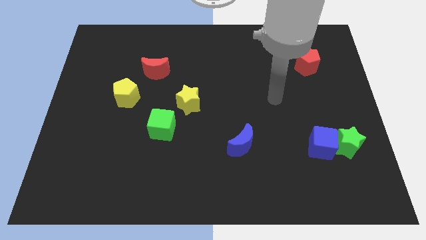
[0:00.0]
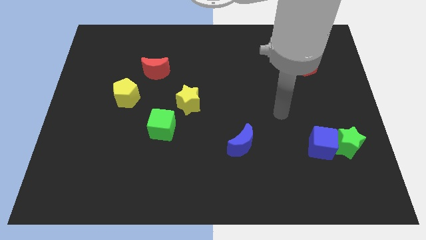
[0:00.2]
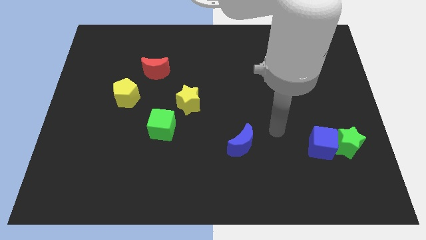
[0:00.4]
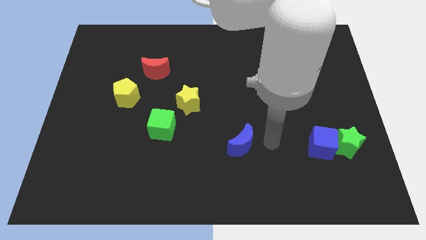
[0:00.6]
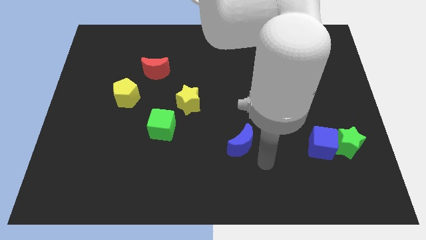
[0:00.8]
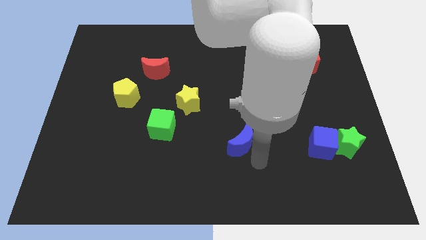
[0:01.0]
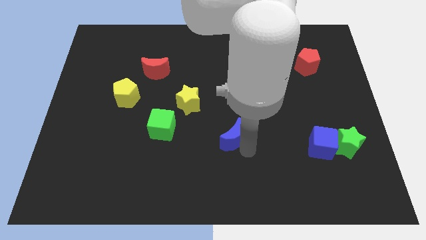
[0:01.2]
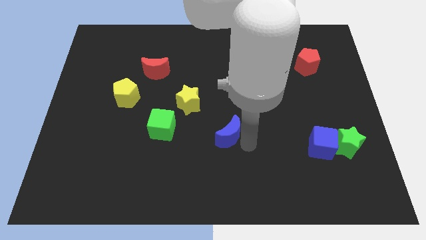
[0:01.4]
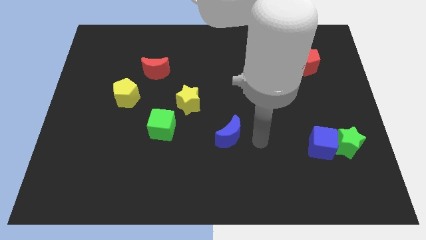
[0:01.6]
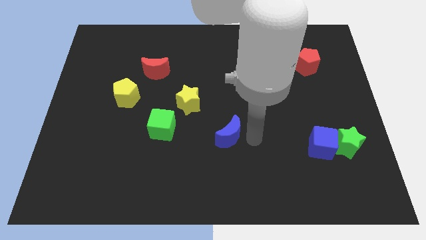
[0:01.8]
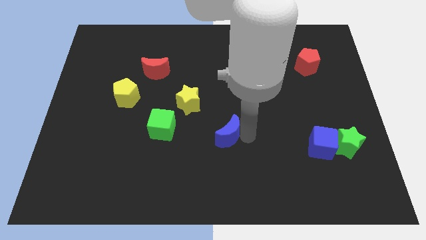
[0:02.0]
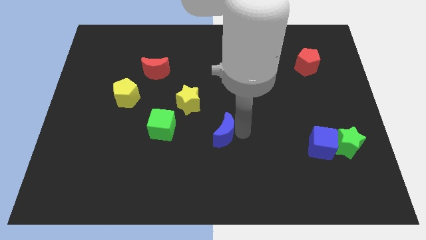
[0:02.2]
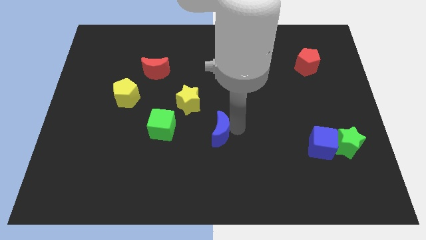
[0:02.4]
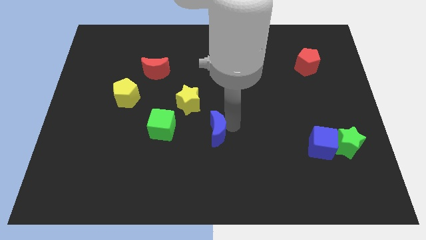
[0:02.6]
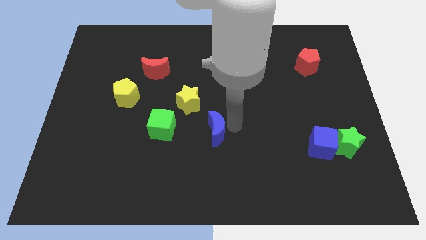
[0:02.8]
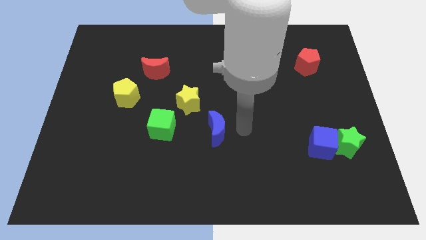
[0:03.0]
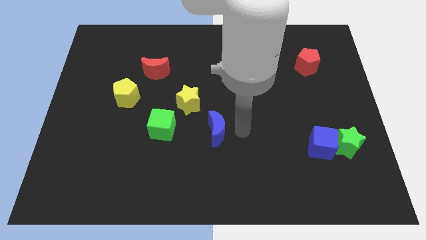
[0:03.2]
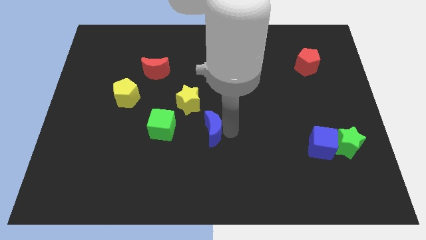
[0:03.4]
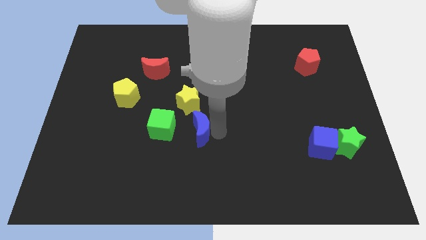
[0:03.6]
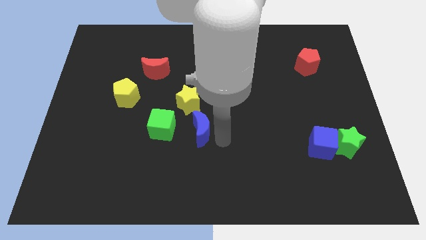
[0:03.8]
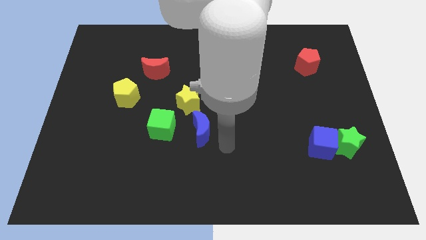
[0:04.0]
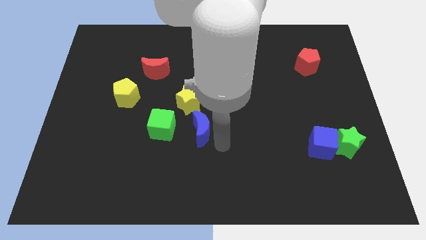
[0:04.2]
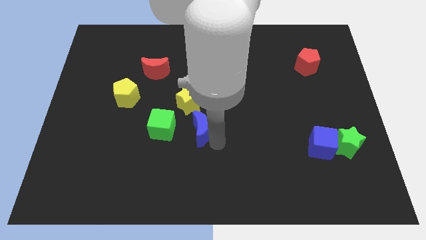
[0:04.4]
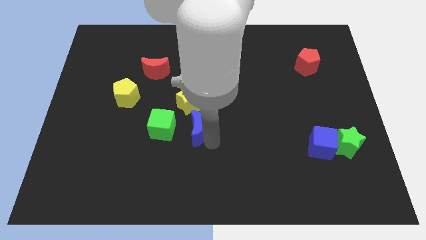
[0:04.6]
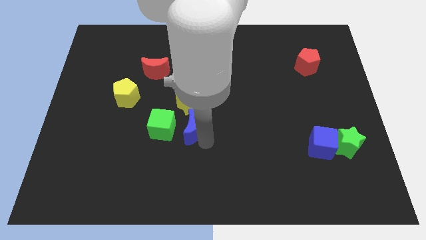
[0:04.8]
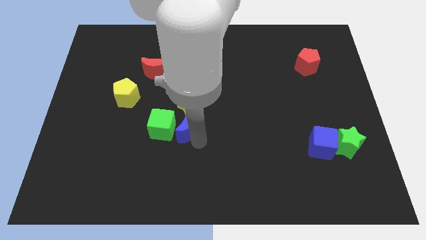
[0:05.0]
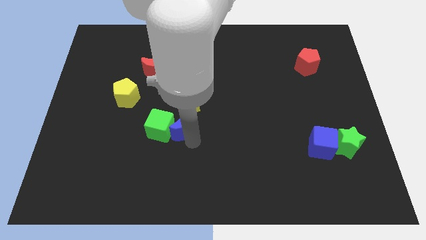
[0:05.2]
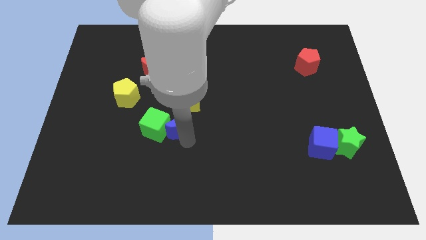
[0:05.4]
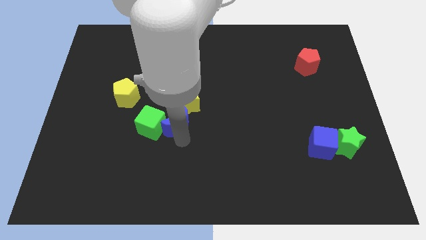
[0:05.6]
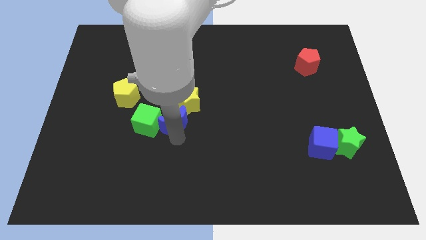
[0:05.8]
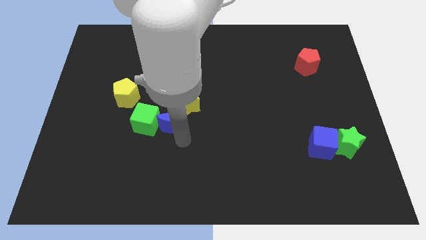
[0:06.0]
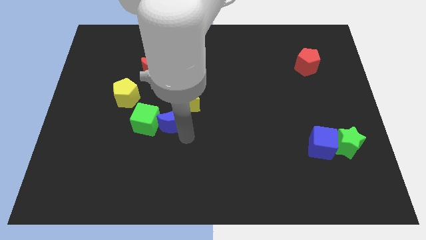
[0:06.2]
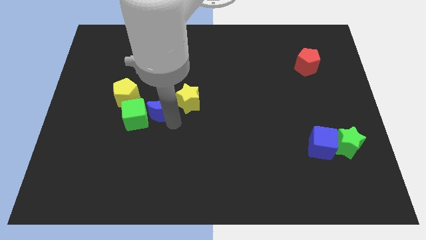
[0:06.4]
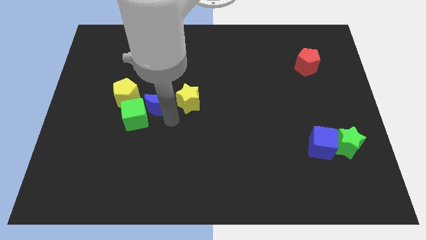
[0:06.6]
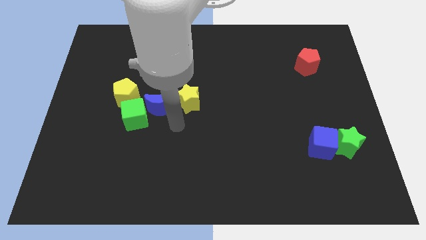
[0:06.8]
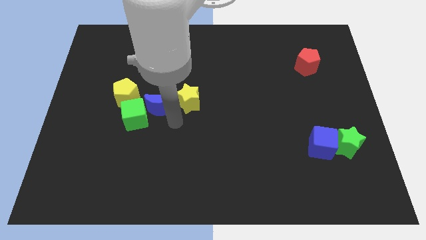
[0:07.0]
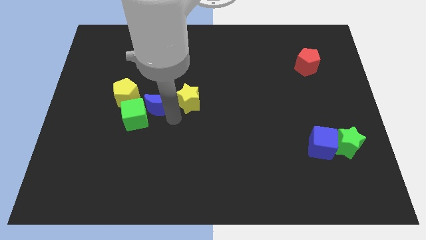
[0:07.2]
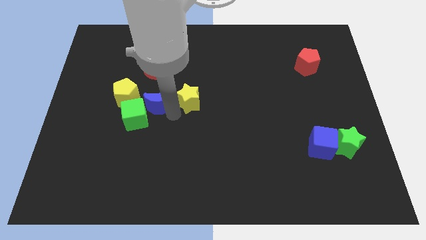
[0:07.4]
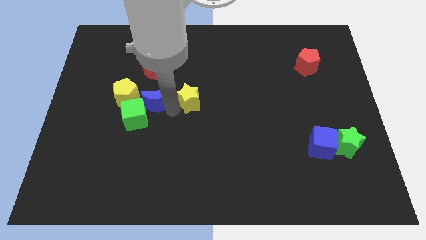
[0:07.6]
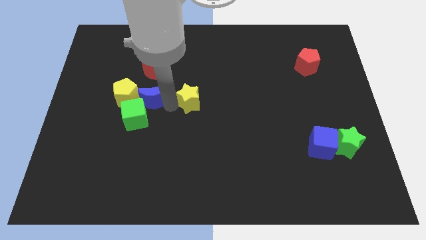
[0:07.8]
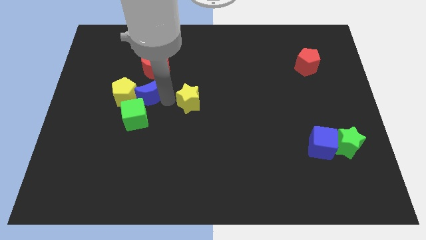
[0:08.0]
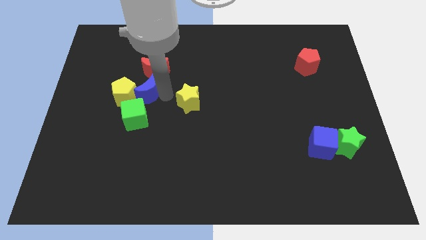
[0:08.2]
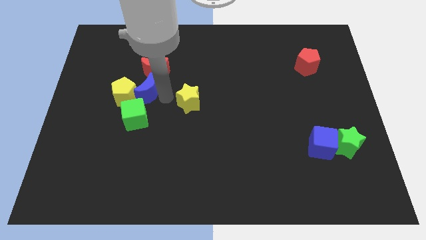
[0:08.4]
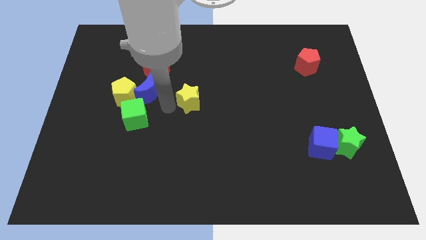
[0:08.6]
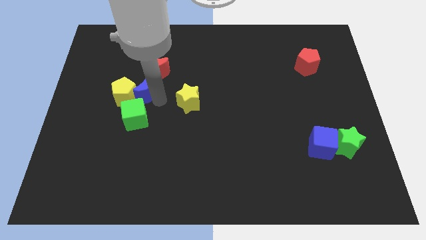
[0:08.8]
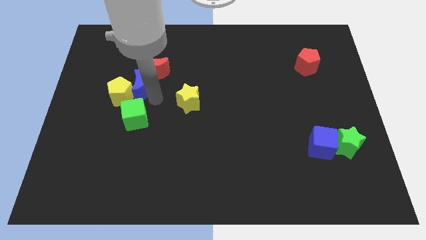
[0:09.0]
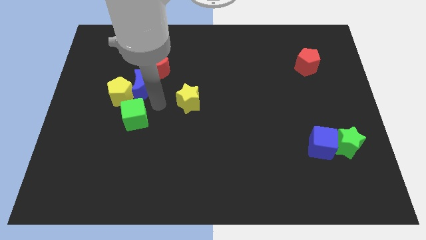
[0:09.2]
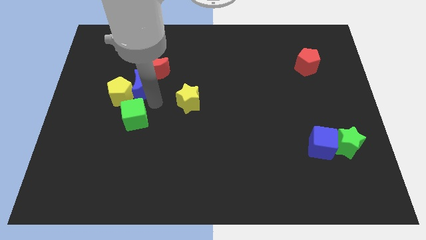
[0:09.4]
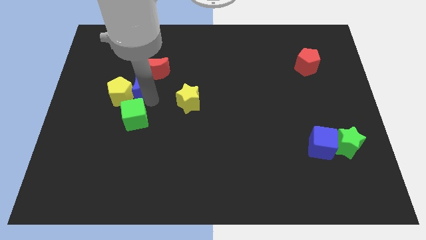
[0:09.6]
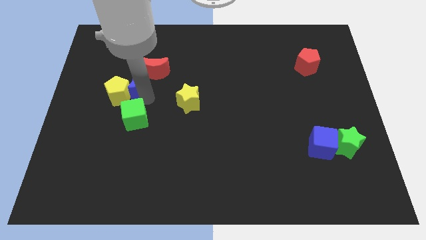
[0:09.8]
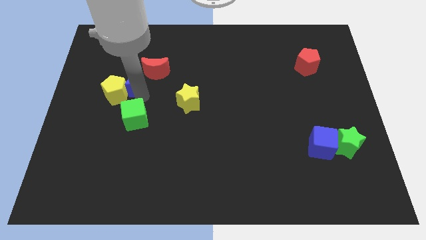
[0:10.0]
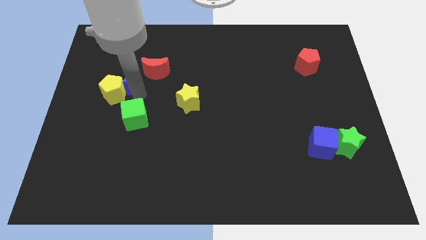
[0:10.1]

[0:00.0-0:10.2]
push the blue moon to the top side of the yellow pentagon

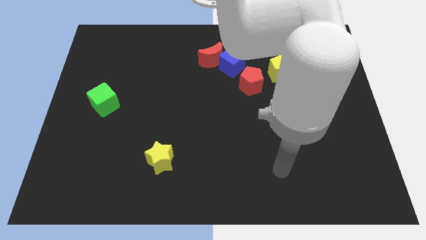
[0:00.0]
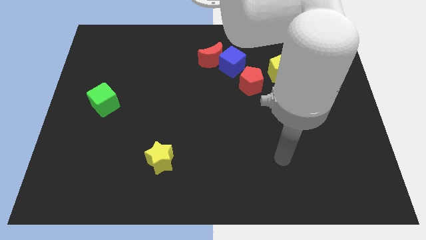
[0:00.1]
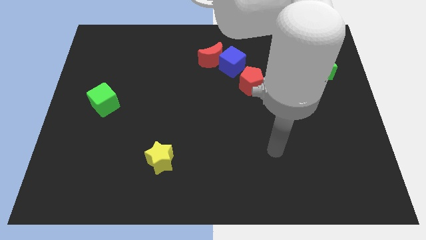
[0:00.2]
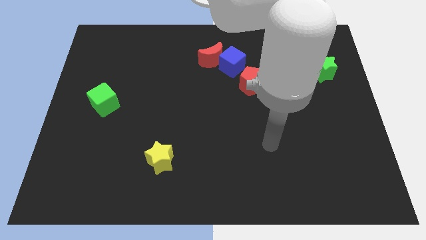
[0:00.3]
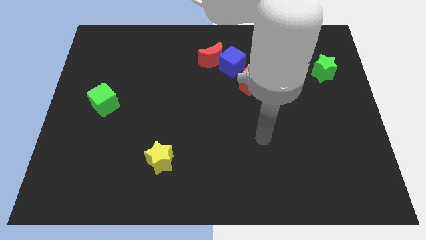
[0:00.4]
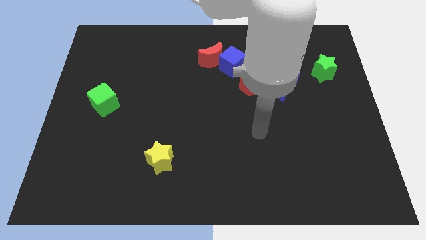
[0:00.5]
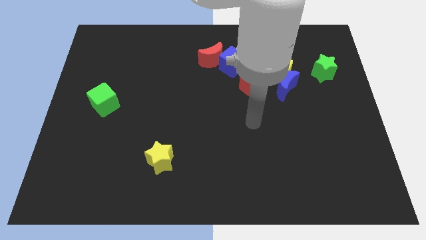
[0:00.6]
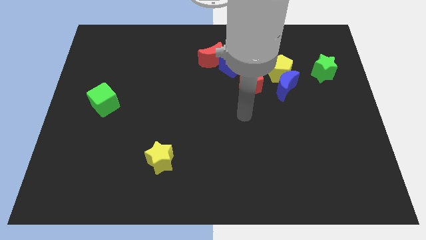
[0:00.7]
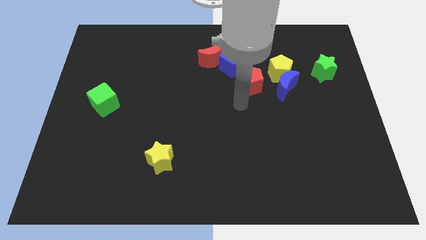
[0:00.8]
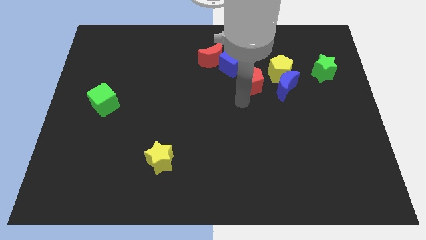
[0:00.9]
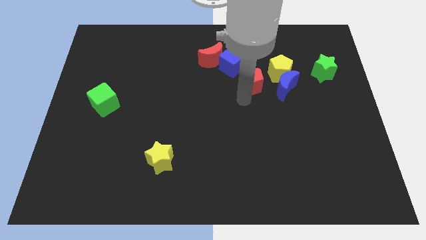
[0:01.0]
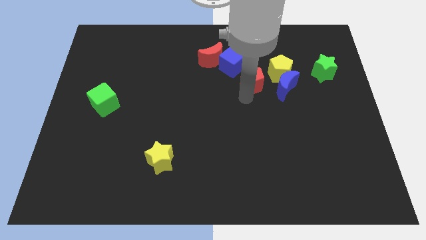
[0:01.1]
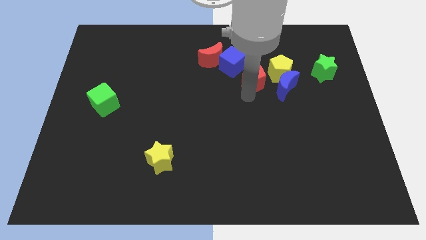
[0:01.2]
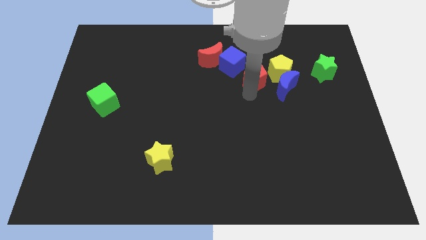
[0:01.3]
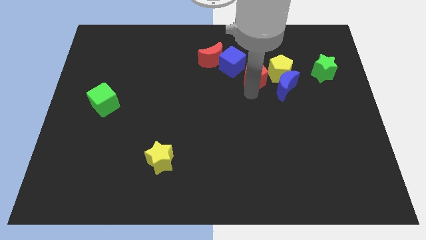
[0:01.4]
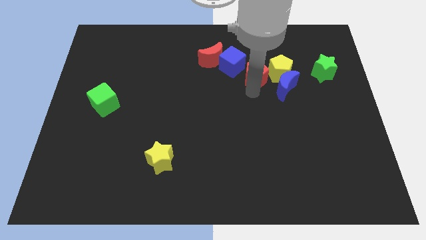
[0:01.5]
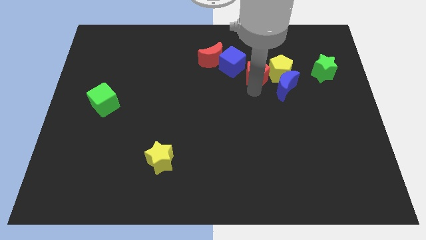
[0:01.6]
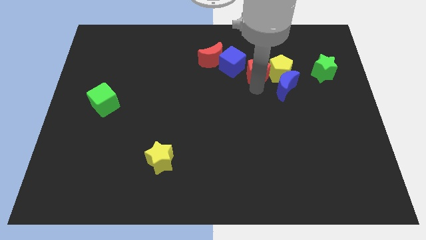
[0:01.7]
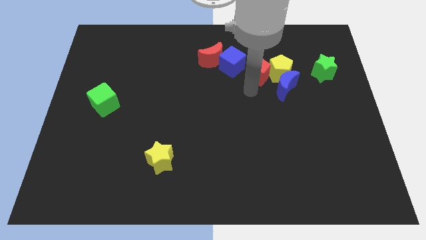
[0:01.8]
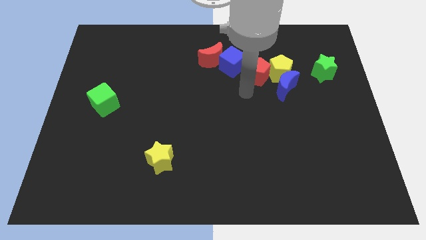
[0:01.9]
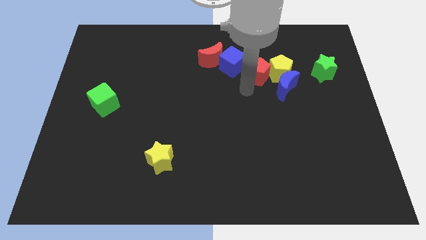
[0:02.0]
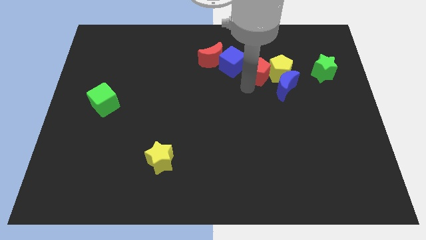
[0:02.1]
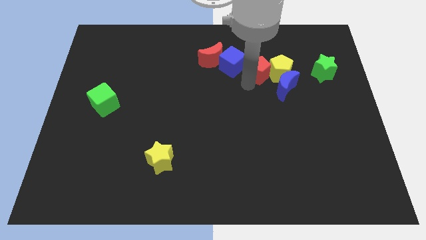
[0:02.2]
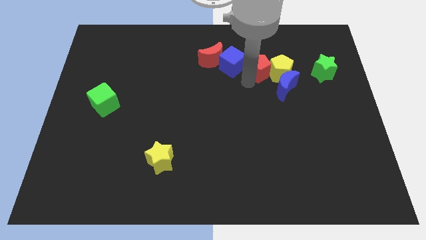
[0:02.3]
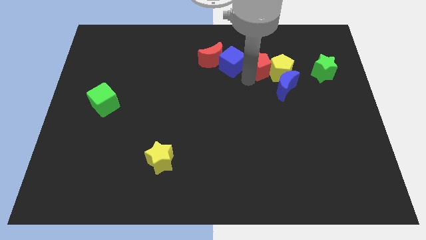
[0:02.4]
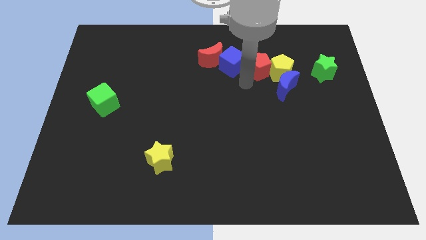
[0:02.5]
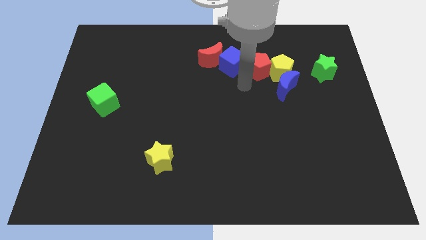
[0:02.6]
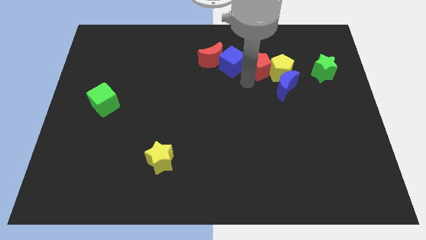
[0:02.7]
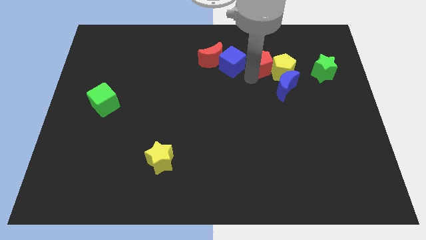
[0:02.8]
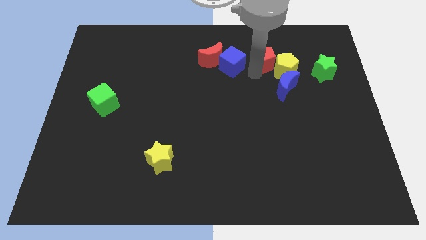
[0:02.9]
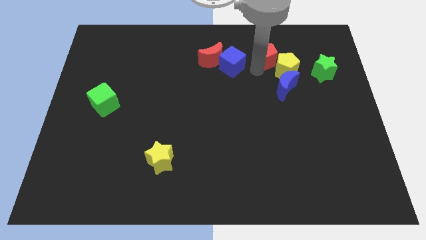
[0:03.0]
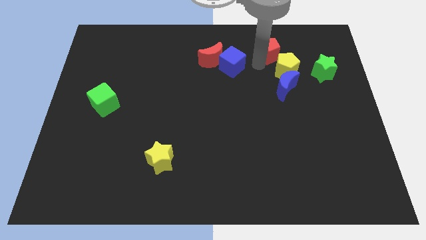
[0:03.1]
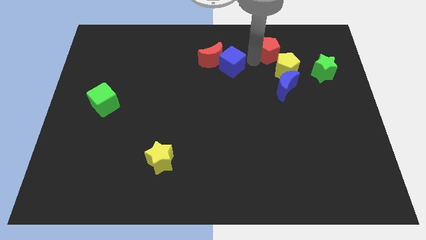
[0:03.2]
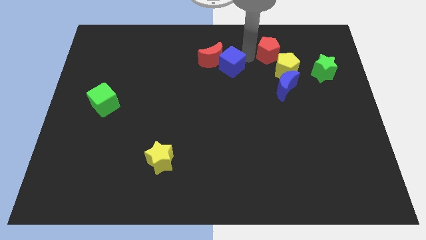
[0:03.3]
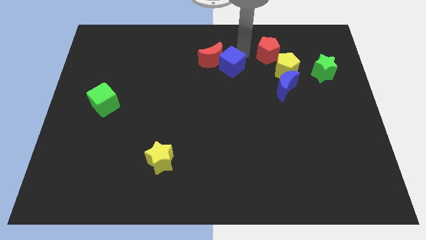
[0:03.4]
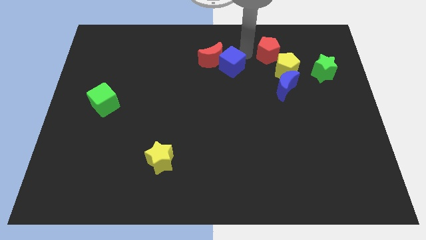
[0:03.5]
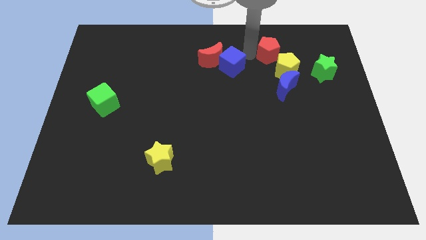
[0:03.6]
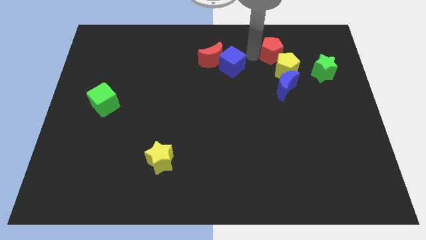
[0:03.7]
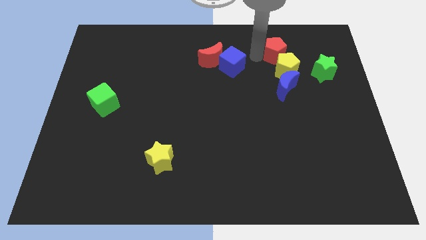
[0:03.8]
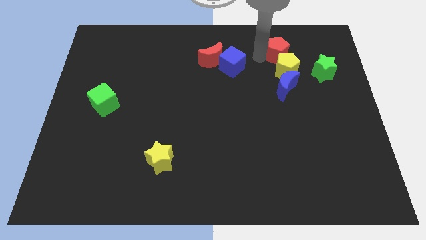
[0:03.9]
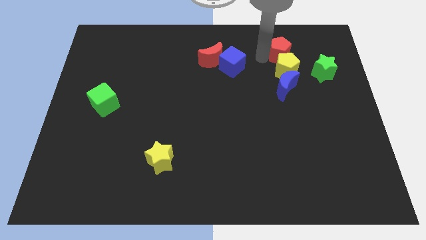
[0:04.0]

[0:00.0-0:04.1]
put the red pentagon to the top right side of the yellow pentagon
